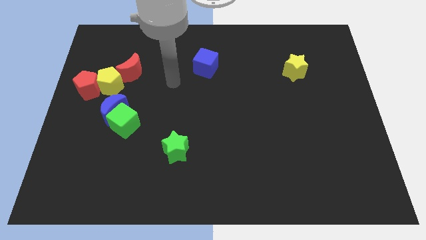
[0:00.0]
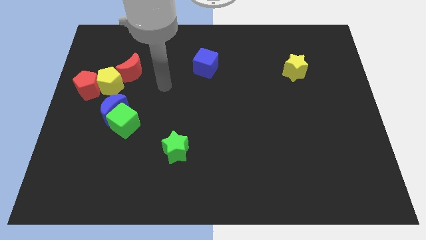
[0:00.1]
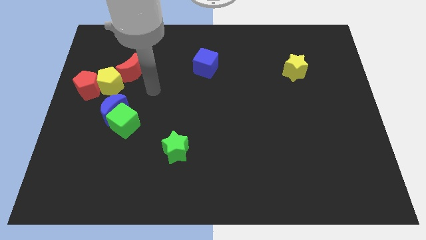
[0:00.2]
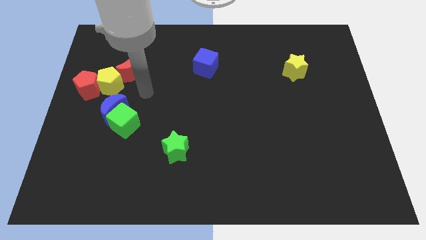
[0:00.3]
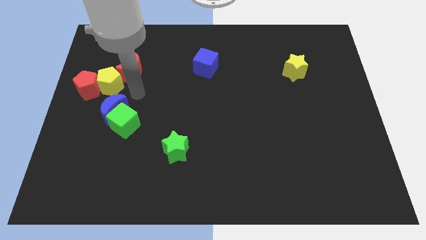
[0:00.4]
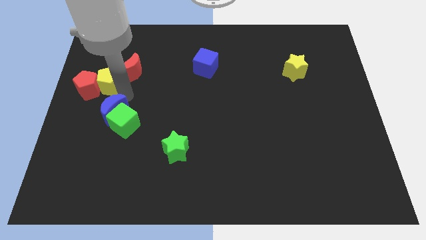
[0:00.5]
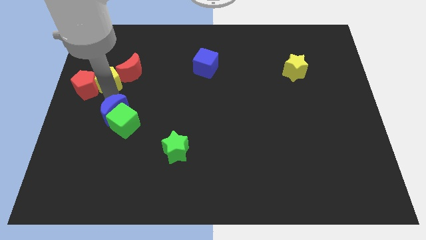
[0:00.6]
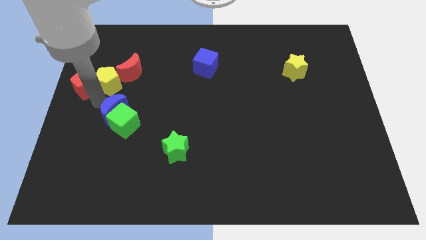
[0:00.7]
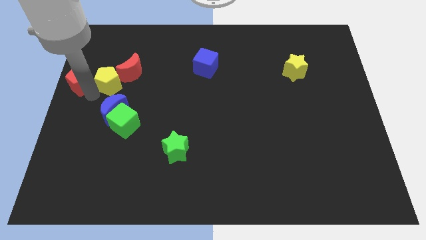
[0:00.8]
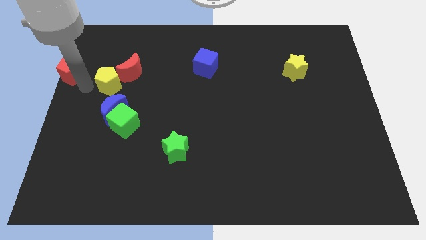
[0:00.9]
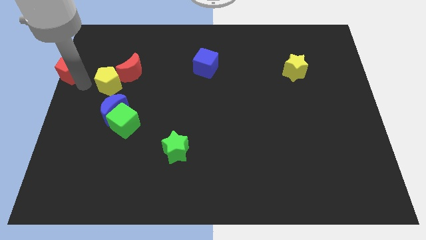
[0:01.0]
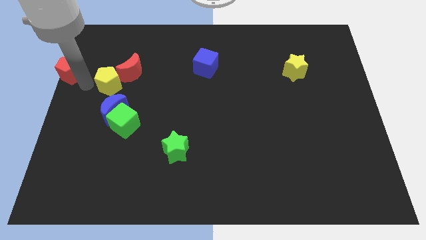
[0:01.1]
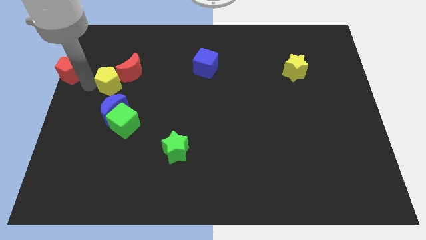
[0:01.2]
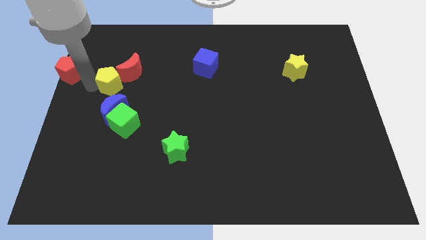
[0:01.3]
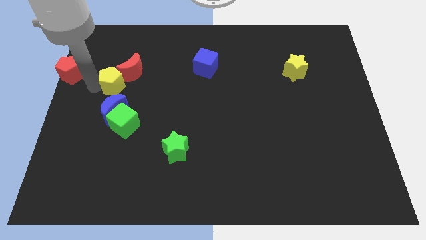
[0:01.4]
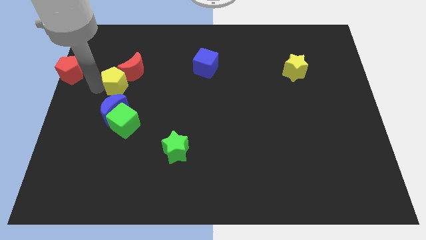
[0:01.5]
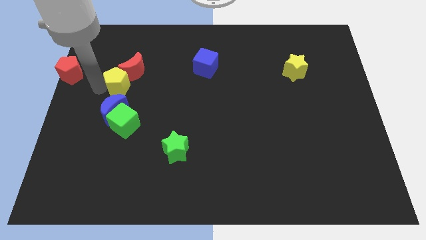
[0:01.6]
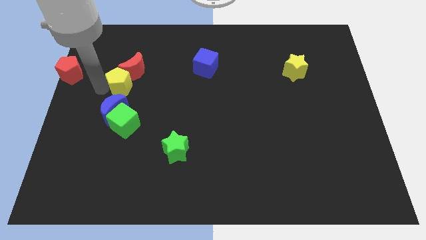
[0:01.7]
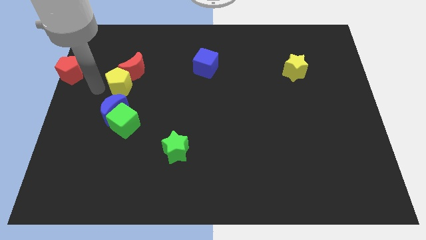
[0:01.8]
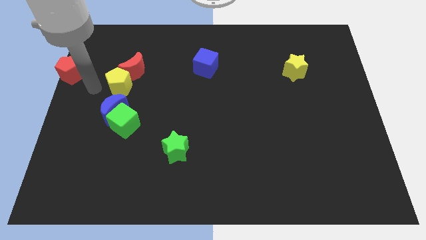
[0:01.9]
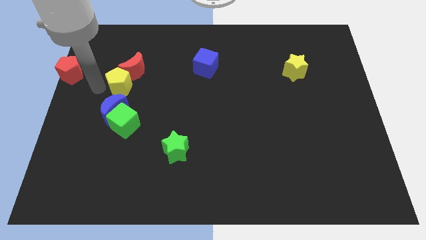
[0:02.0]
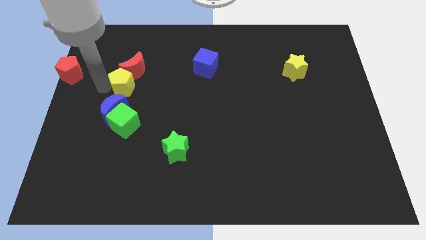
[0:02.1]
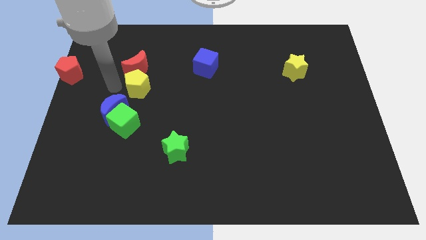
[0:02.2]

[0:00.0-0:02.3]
push the yellow pentagon right somewhat

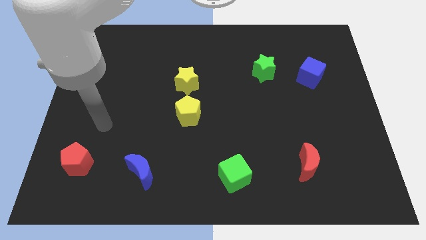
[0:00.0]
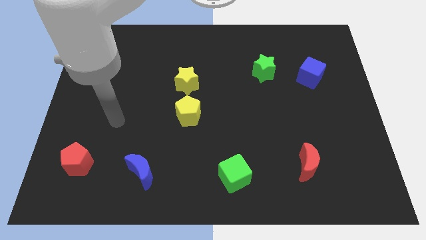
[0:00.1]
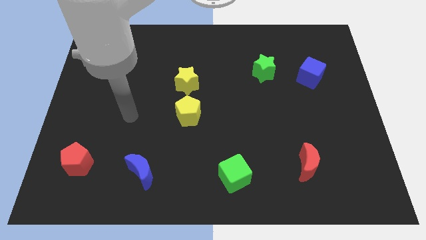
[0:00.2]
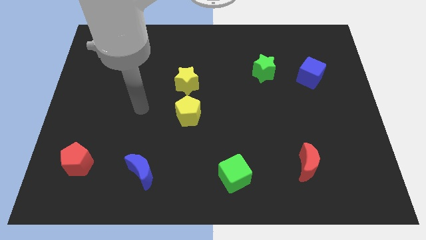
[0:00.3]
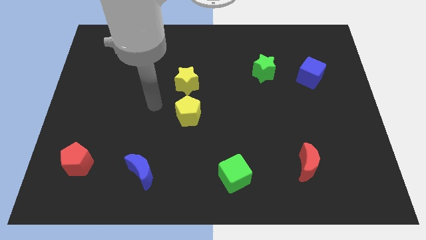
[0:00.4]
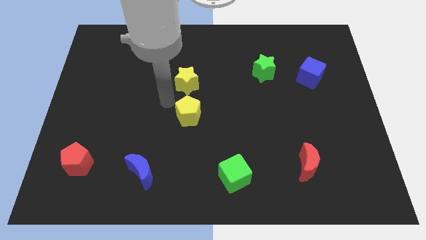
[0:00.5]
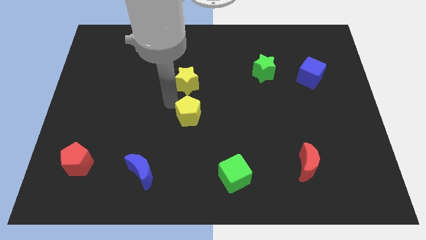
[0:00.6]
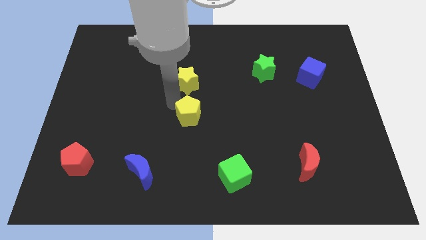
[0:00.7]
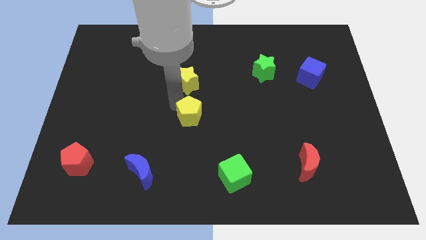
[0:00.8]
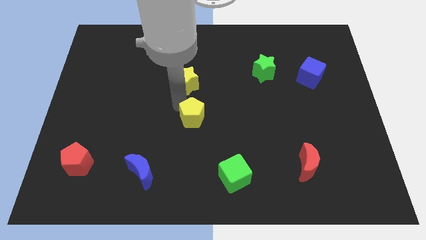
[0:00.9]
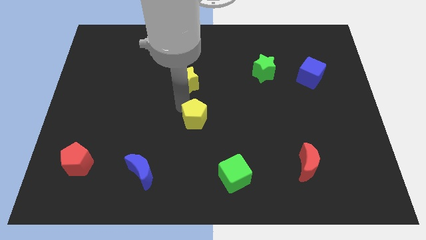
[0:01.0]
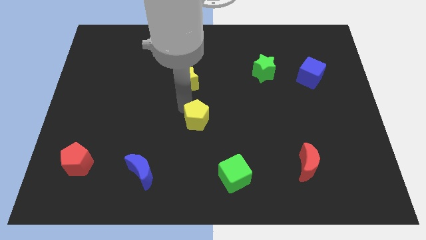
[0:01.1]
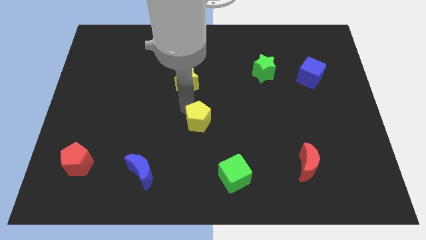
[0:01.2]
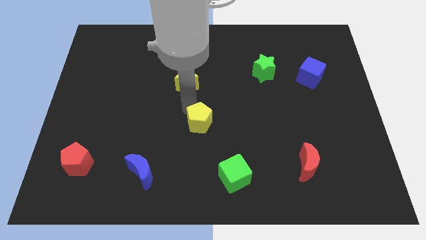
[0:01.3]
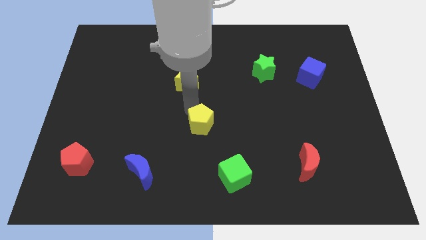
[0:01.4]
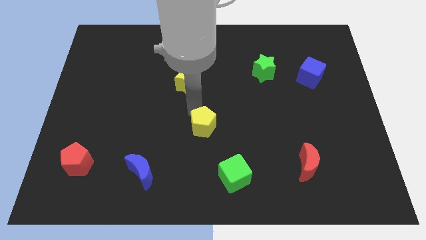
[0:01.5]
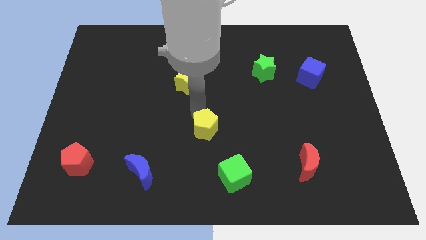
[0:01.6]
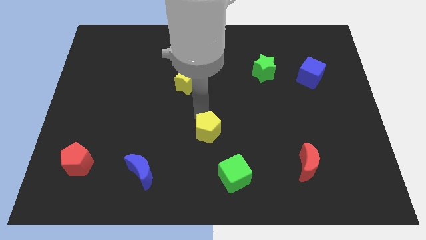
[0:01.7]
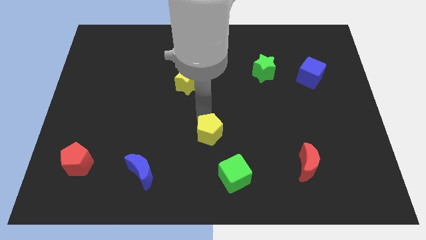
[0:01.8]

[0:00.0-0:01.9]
move the yellow pentagon downwards and to the right somewhat

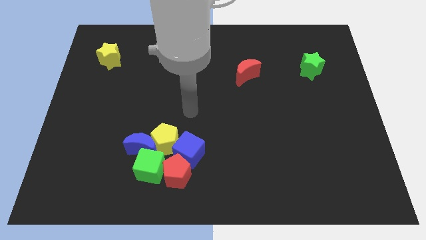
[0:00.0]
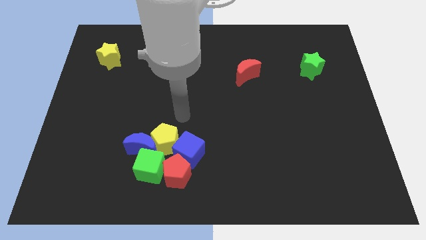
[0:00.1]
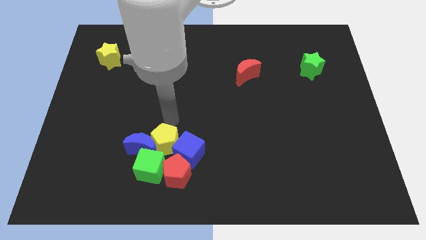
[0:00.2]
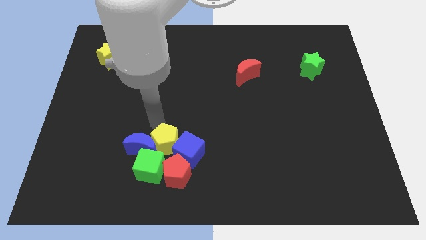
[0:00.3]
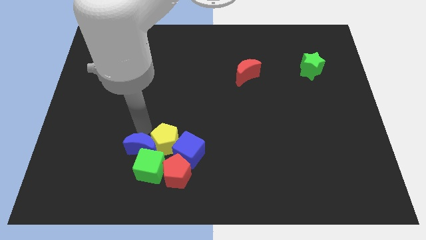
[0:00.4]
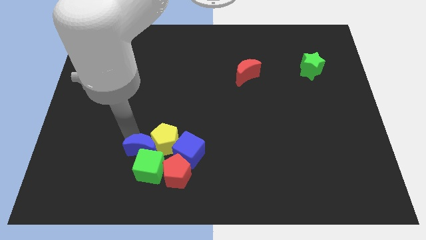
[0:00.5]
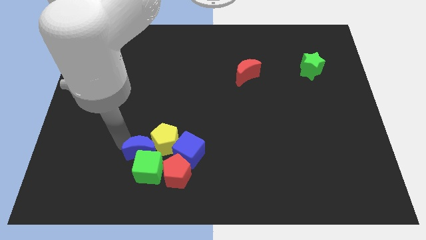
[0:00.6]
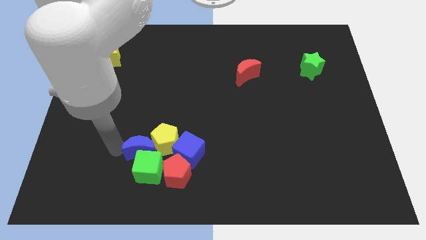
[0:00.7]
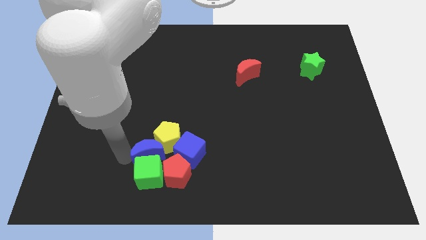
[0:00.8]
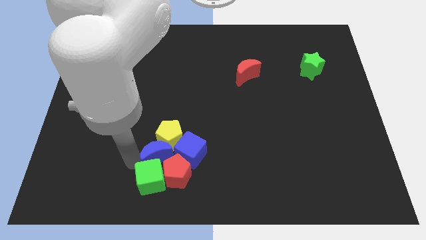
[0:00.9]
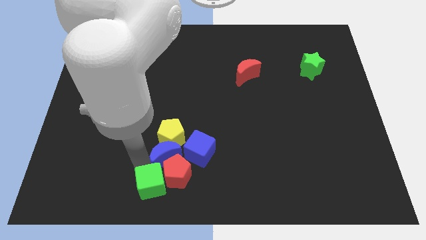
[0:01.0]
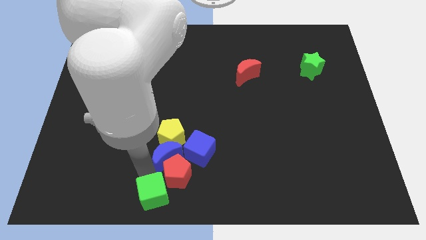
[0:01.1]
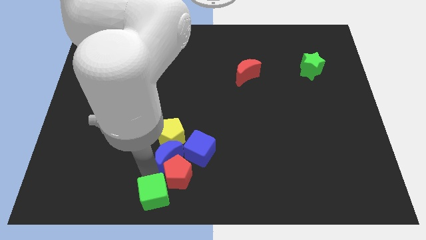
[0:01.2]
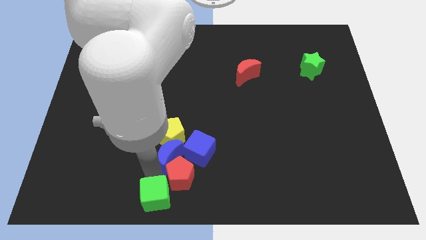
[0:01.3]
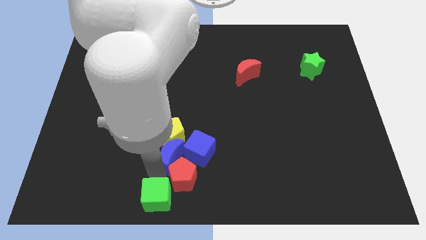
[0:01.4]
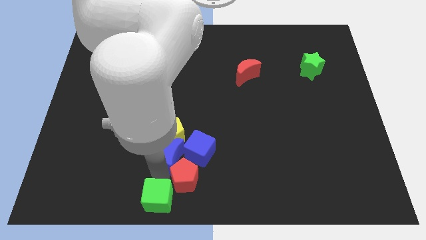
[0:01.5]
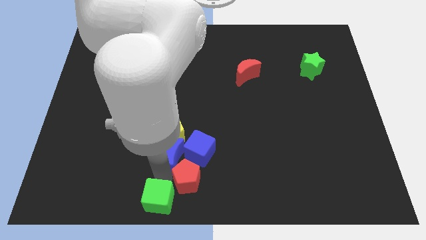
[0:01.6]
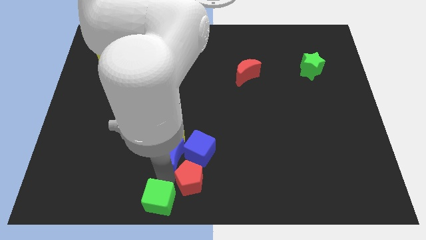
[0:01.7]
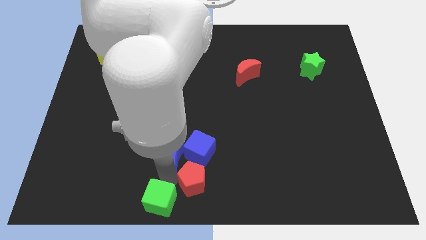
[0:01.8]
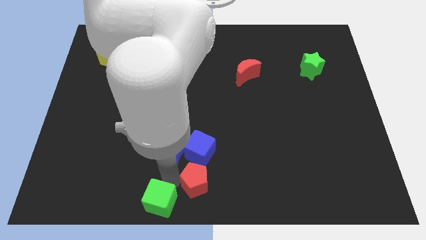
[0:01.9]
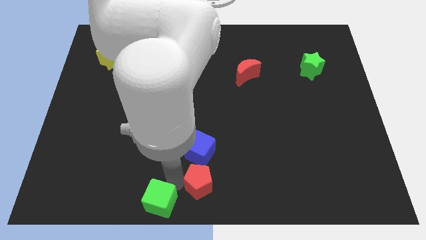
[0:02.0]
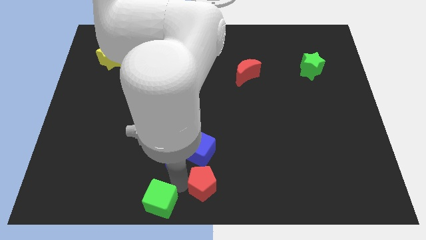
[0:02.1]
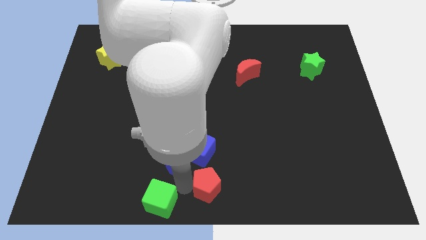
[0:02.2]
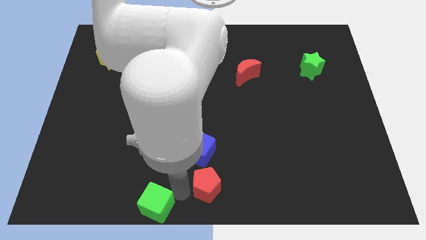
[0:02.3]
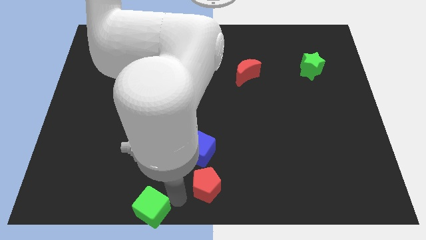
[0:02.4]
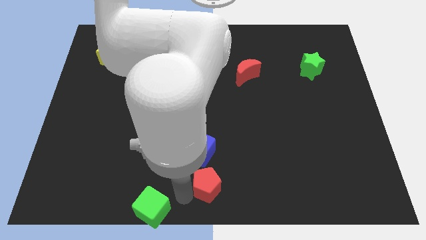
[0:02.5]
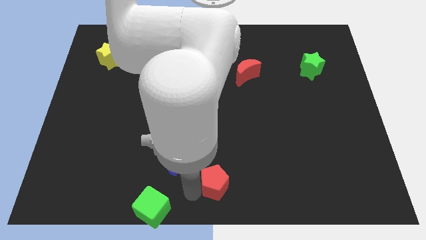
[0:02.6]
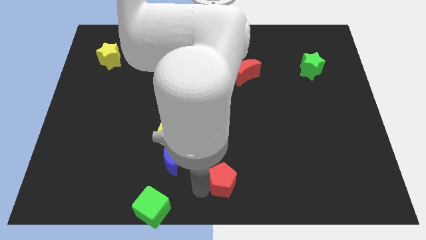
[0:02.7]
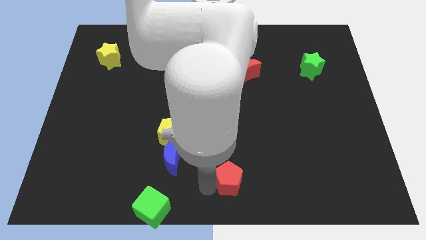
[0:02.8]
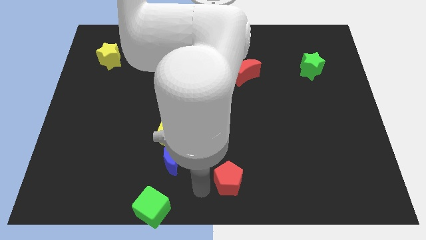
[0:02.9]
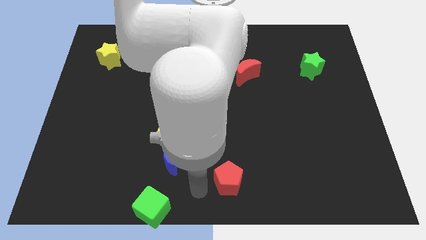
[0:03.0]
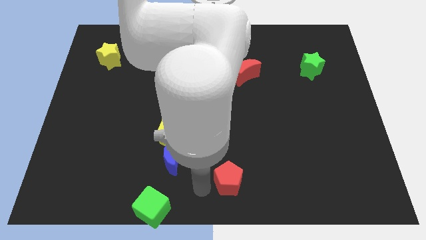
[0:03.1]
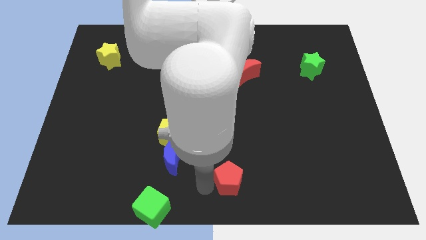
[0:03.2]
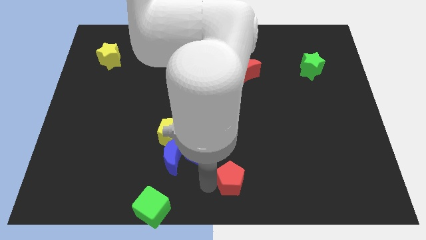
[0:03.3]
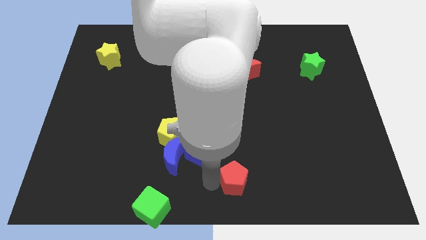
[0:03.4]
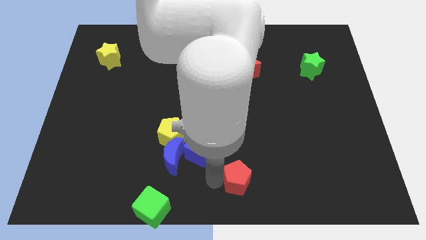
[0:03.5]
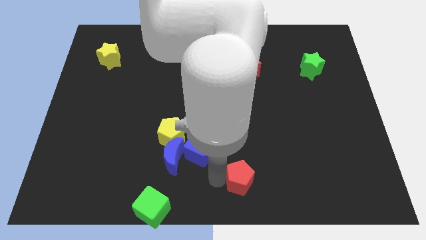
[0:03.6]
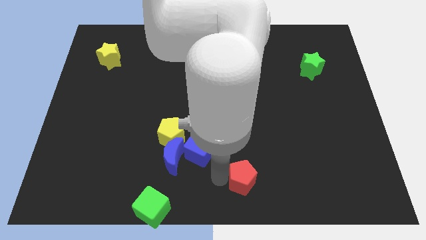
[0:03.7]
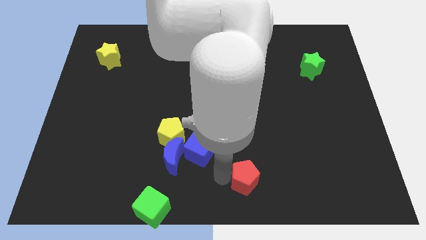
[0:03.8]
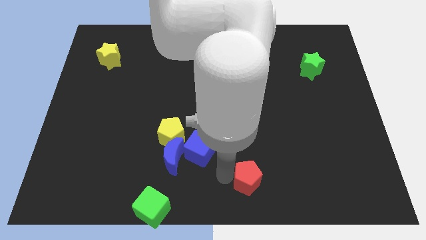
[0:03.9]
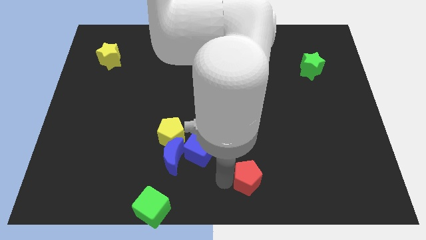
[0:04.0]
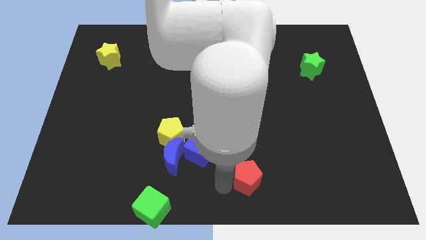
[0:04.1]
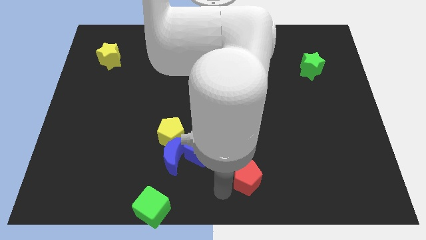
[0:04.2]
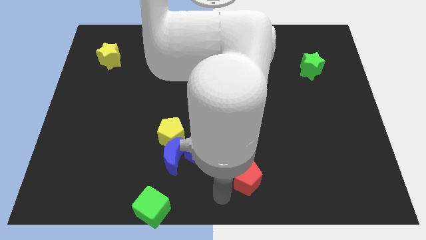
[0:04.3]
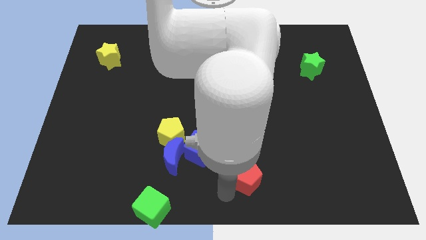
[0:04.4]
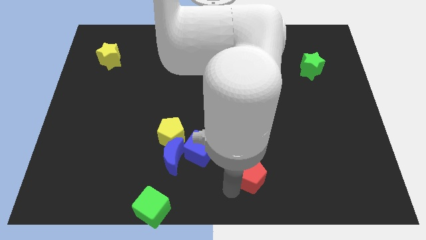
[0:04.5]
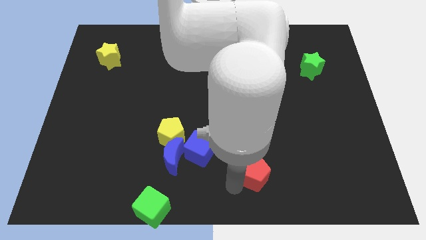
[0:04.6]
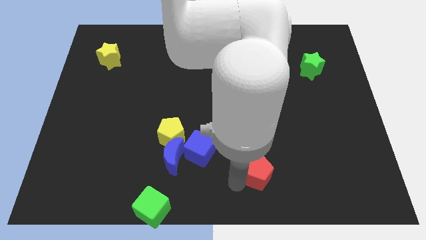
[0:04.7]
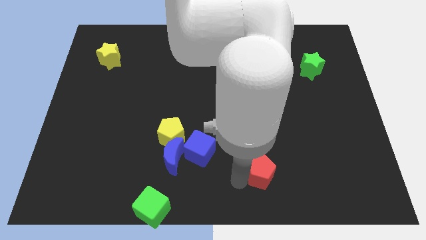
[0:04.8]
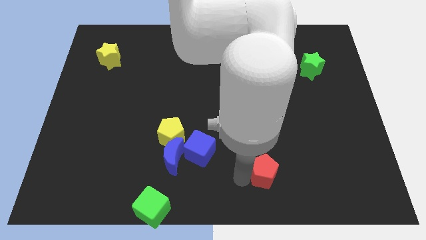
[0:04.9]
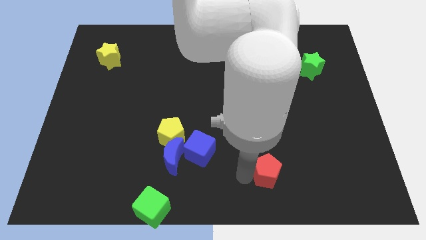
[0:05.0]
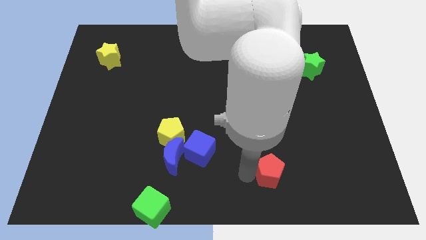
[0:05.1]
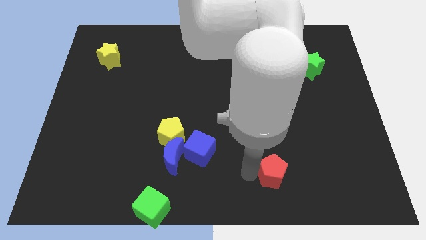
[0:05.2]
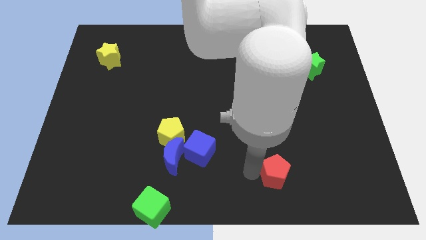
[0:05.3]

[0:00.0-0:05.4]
move the red pentagon to the right
